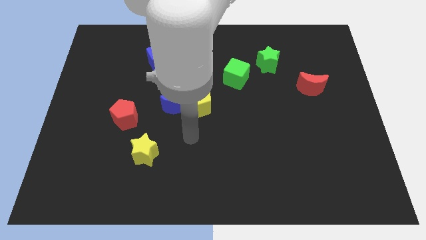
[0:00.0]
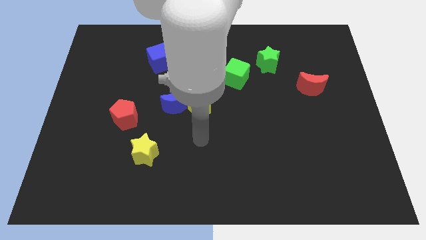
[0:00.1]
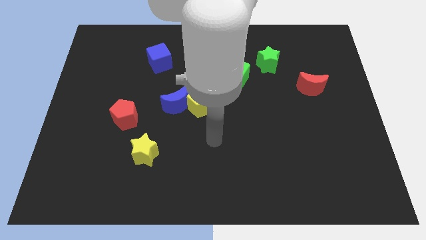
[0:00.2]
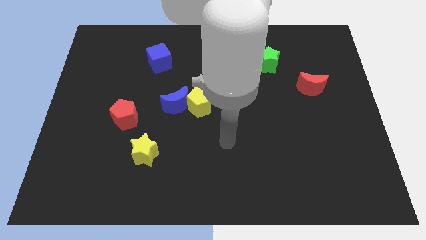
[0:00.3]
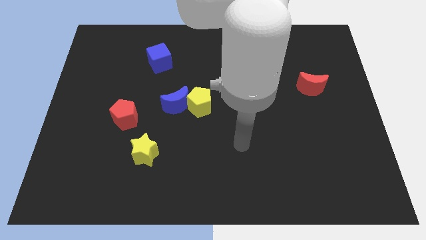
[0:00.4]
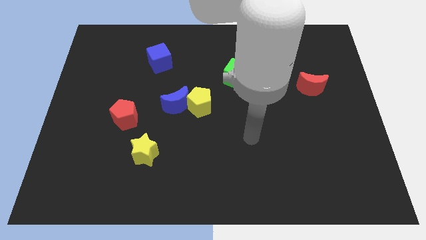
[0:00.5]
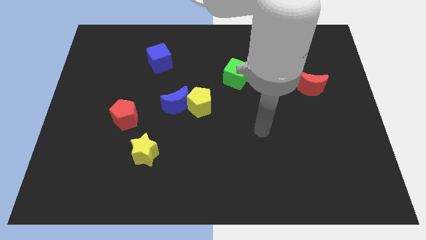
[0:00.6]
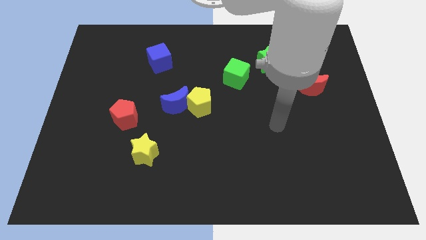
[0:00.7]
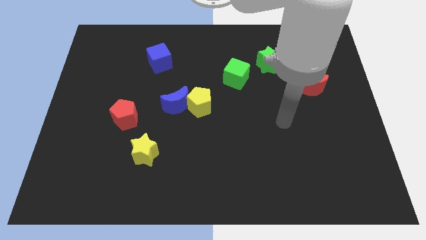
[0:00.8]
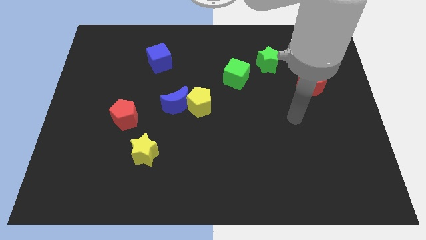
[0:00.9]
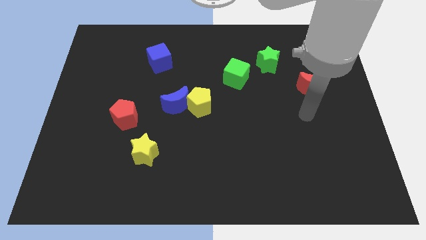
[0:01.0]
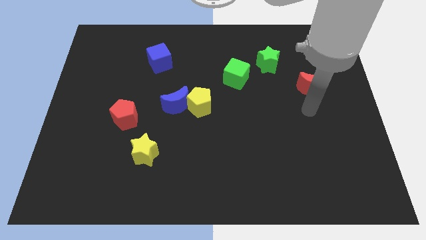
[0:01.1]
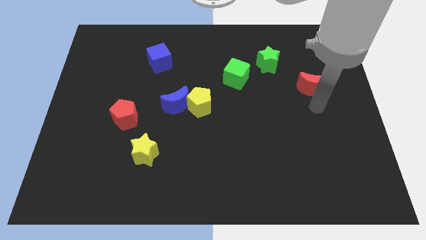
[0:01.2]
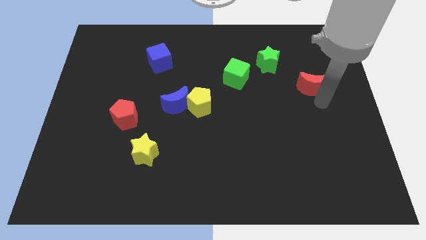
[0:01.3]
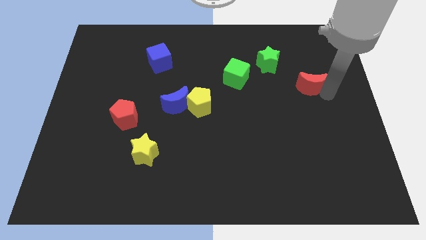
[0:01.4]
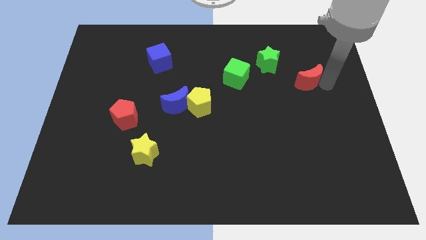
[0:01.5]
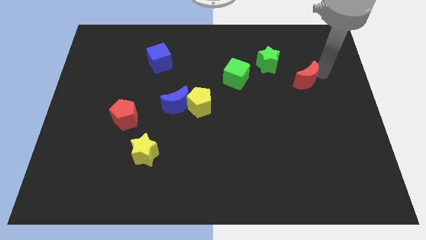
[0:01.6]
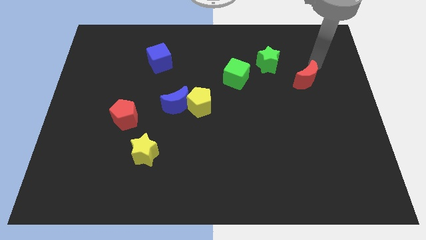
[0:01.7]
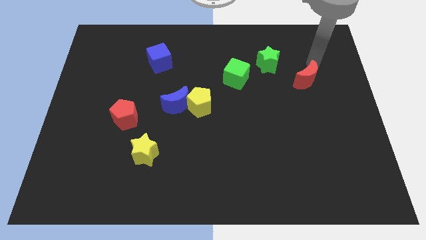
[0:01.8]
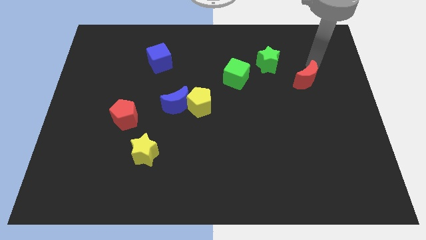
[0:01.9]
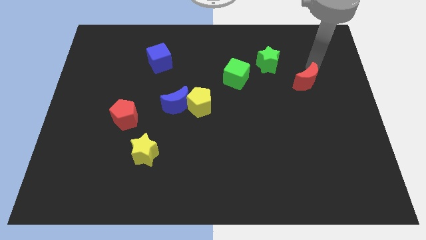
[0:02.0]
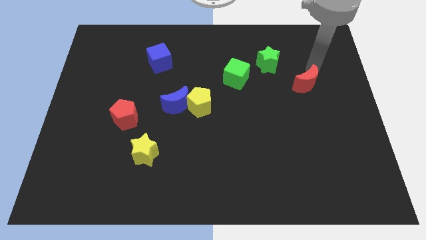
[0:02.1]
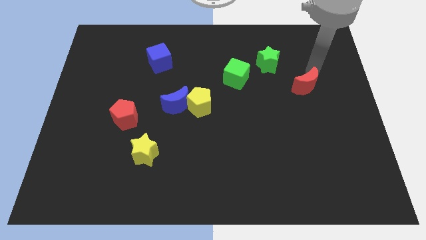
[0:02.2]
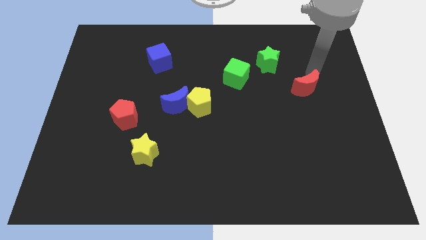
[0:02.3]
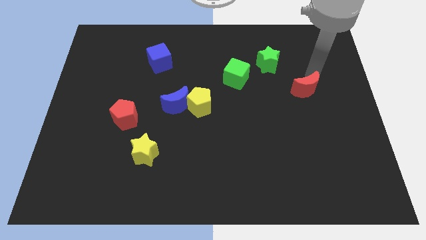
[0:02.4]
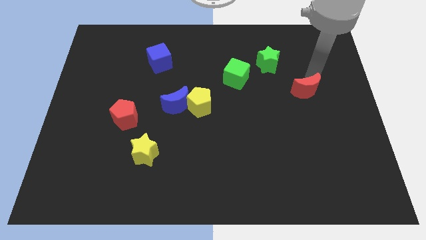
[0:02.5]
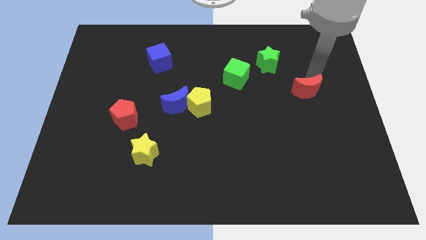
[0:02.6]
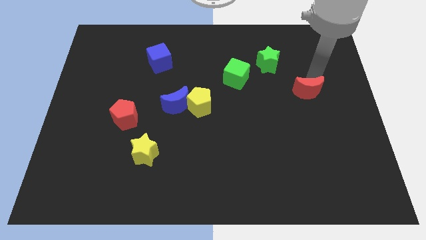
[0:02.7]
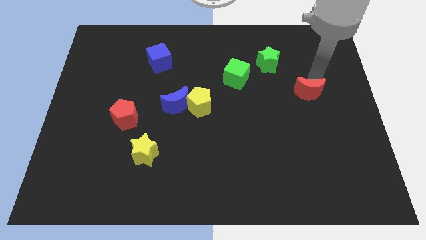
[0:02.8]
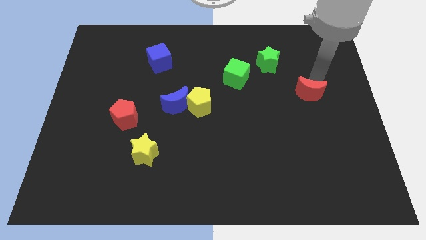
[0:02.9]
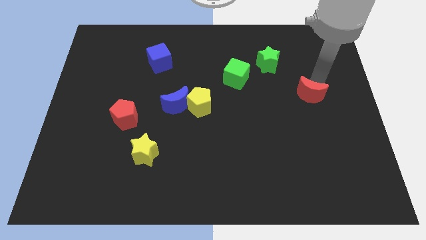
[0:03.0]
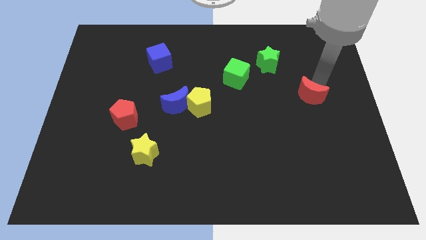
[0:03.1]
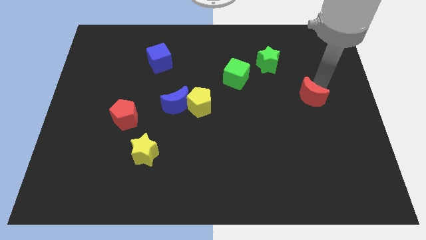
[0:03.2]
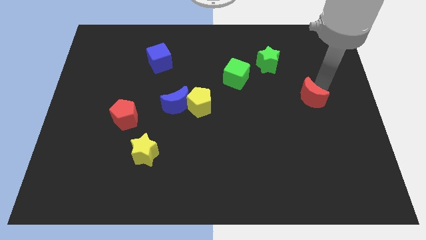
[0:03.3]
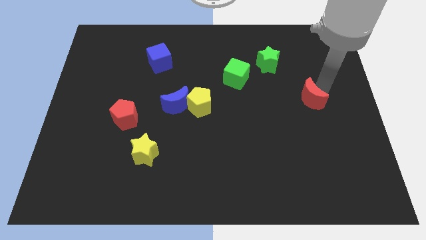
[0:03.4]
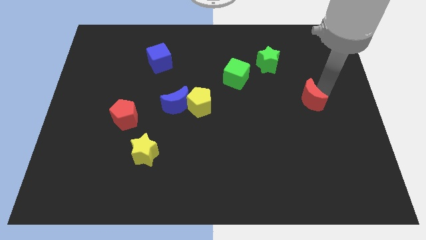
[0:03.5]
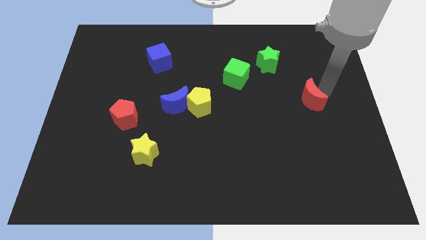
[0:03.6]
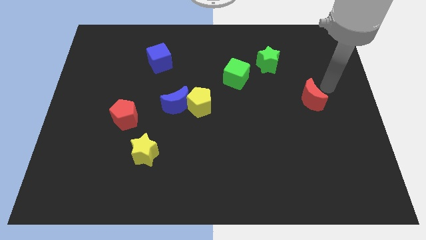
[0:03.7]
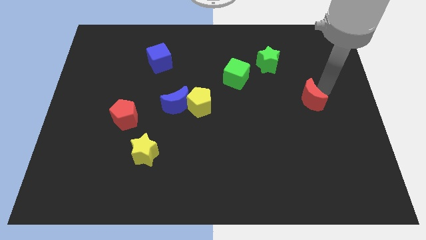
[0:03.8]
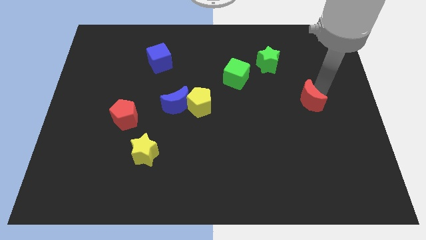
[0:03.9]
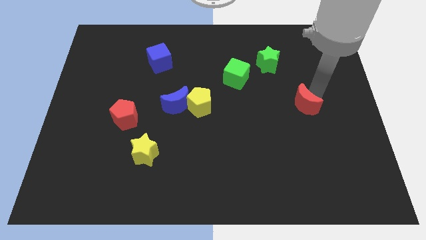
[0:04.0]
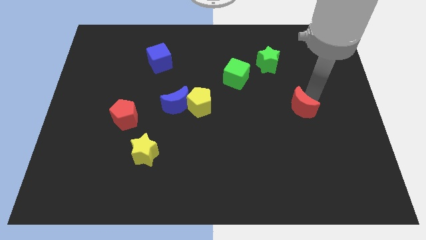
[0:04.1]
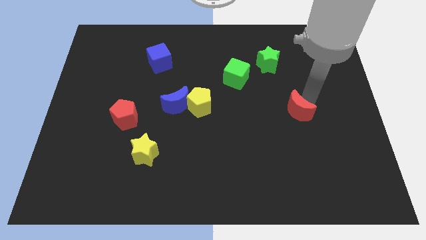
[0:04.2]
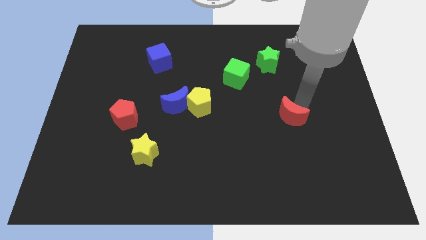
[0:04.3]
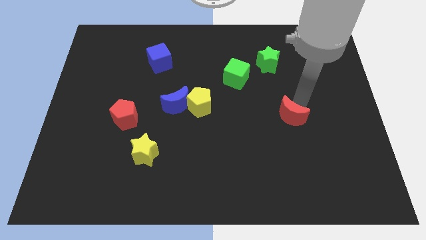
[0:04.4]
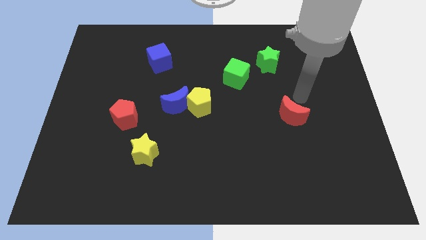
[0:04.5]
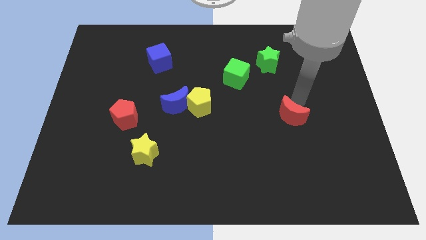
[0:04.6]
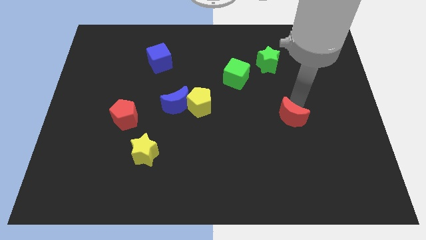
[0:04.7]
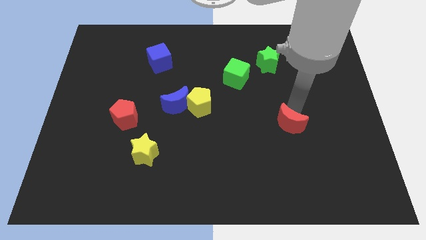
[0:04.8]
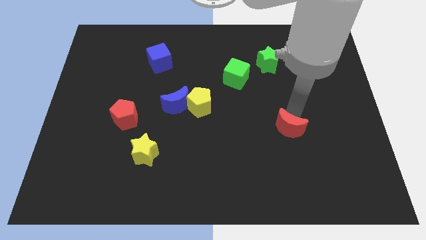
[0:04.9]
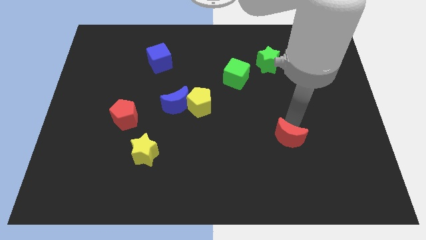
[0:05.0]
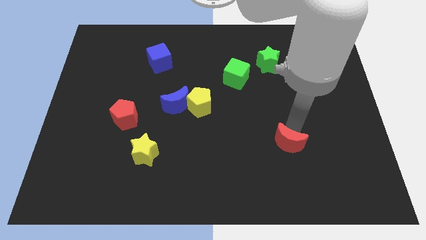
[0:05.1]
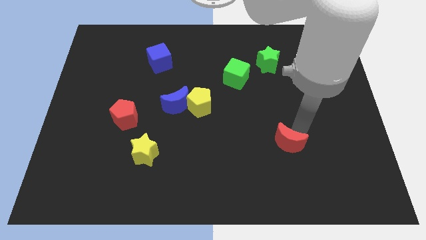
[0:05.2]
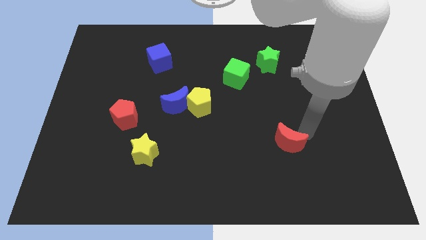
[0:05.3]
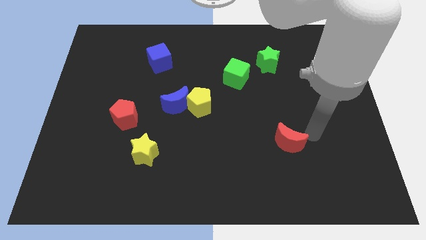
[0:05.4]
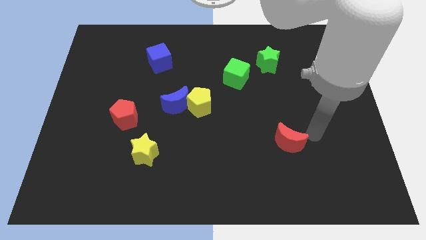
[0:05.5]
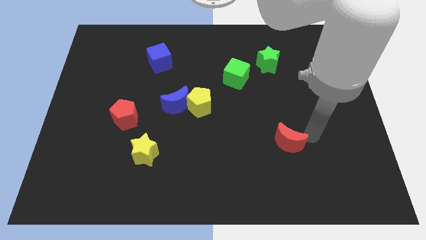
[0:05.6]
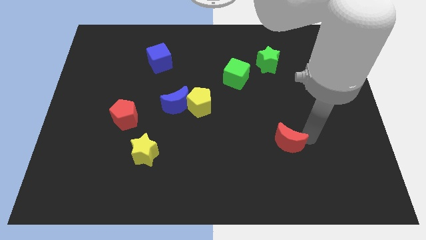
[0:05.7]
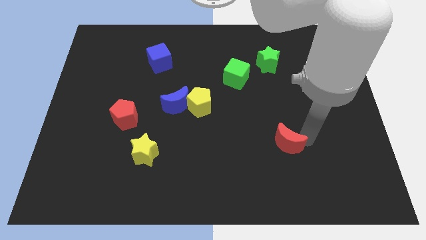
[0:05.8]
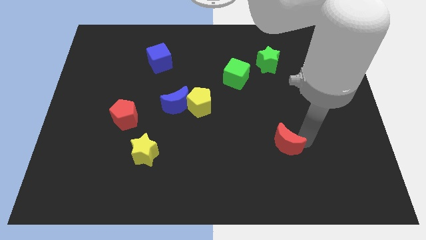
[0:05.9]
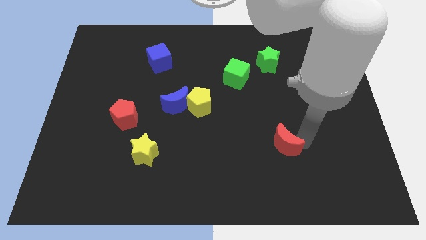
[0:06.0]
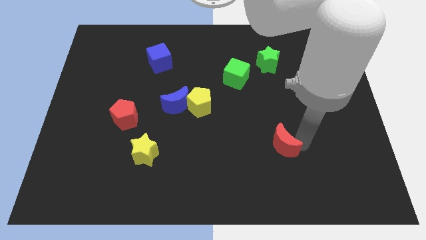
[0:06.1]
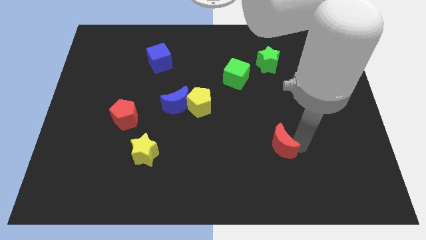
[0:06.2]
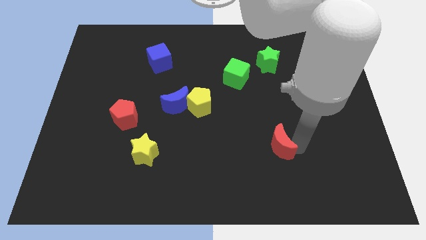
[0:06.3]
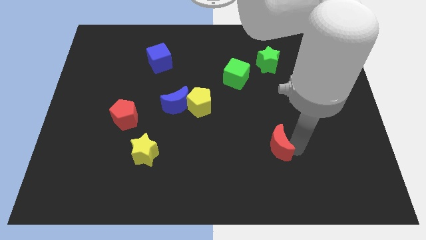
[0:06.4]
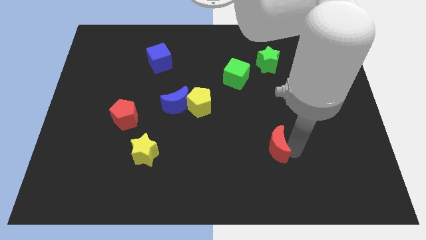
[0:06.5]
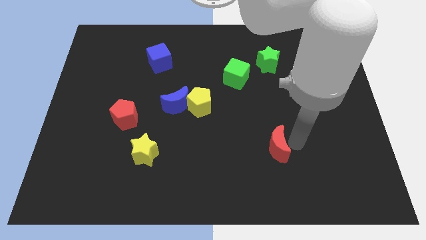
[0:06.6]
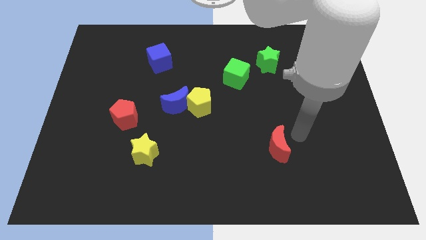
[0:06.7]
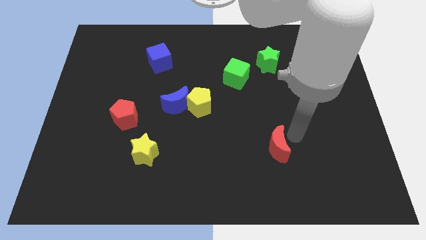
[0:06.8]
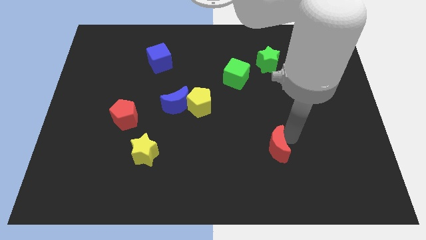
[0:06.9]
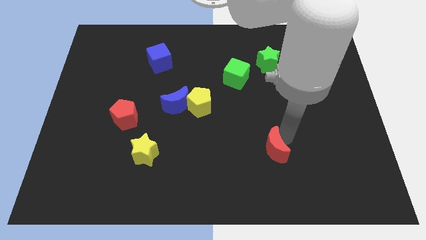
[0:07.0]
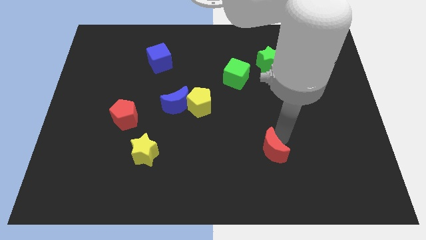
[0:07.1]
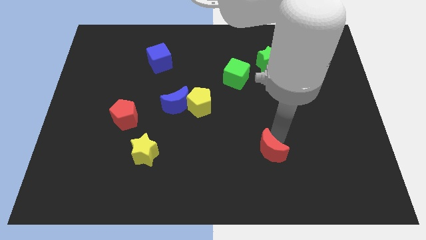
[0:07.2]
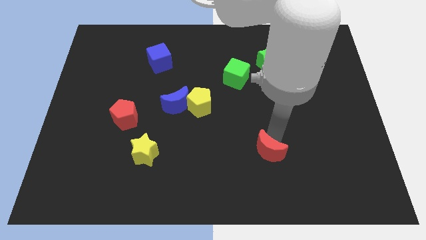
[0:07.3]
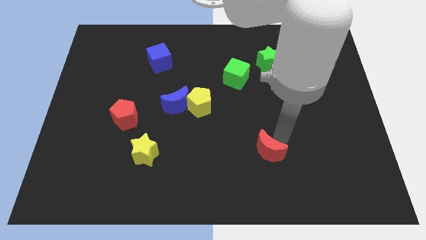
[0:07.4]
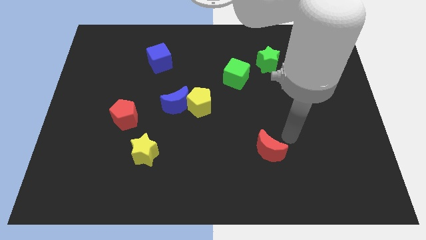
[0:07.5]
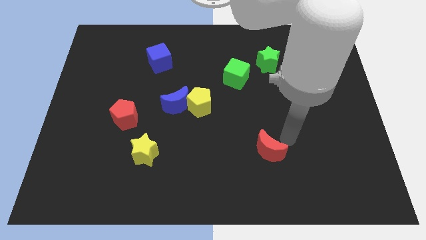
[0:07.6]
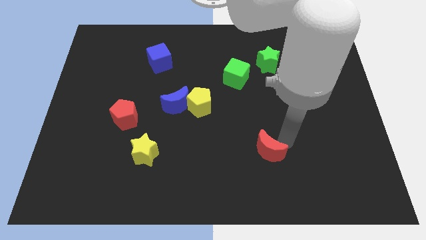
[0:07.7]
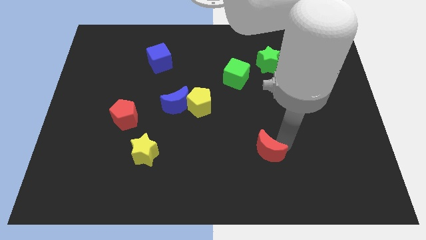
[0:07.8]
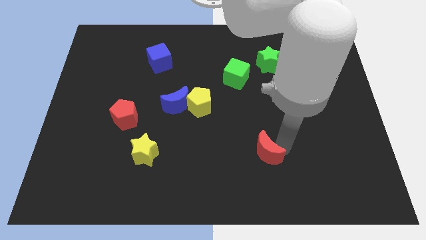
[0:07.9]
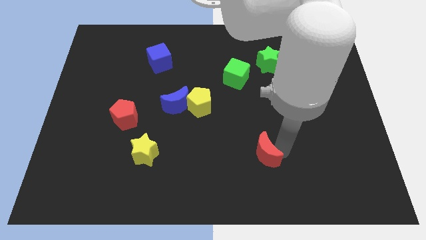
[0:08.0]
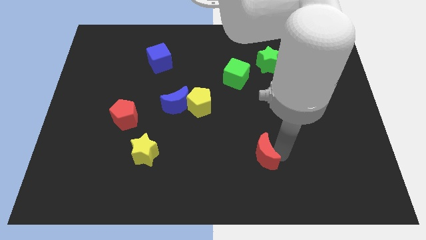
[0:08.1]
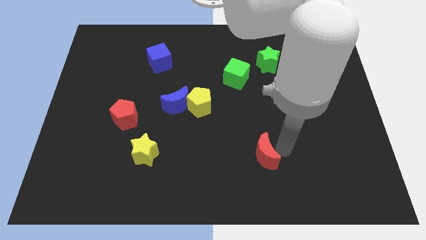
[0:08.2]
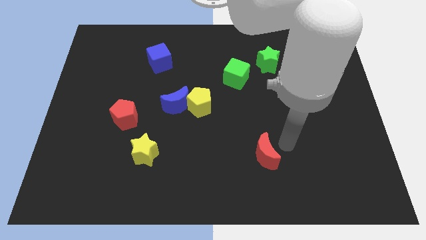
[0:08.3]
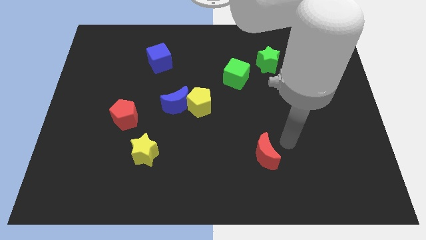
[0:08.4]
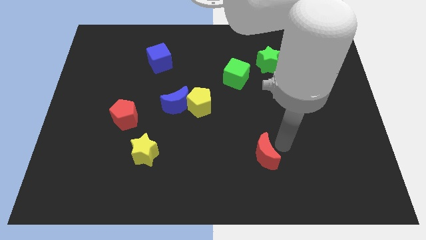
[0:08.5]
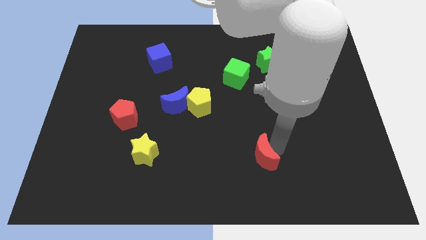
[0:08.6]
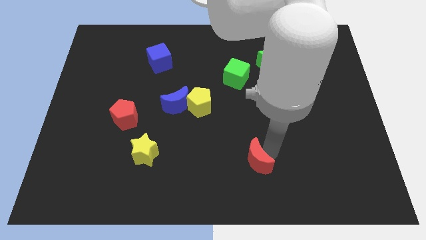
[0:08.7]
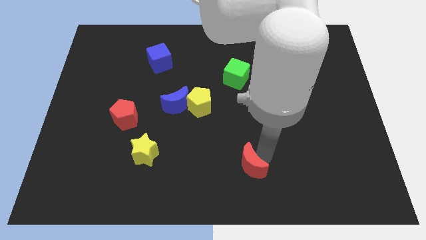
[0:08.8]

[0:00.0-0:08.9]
push the red moon to the bottom
